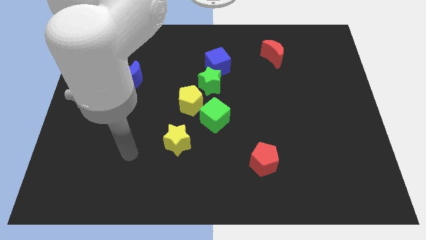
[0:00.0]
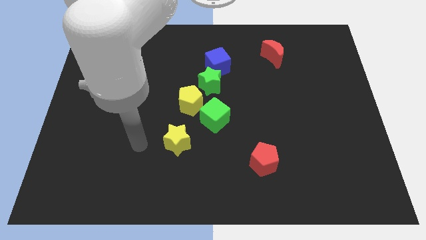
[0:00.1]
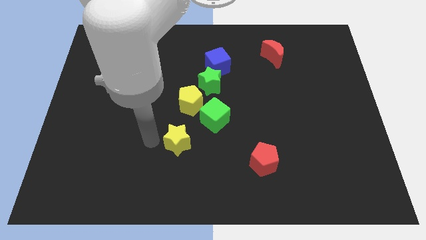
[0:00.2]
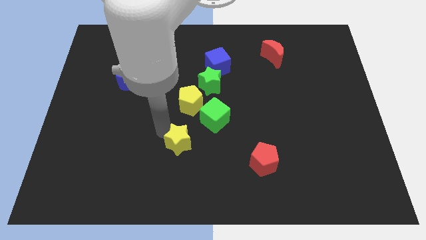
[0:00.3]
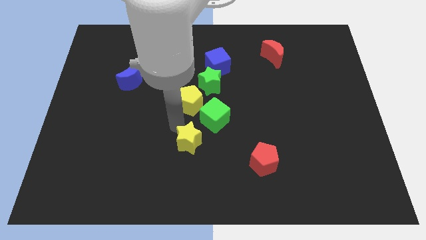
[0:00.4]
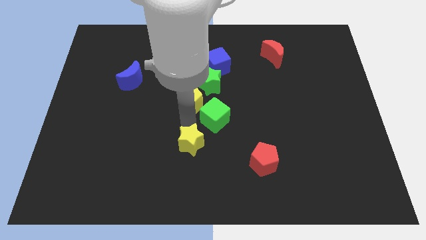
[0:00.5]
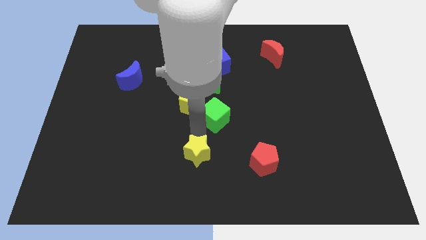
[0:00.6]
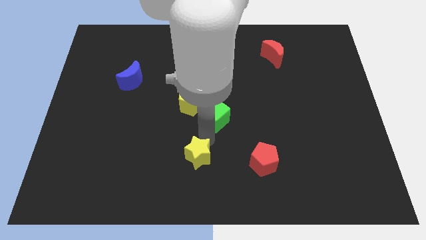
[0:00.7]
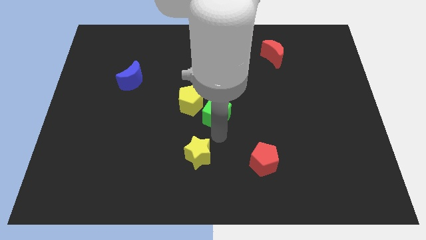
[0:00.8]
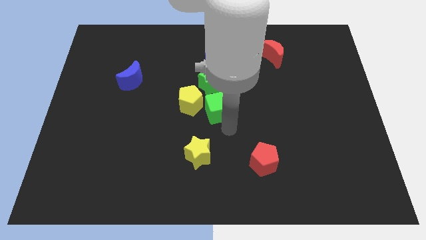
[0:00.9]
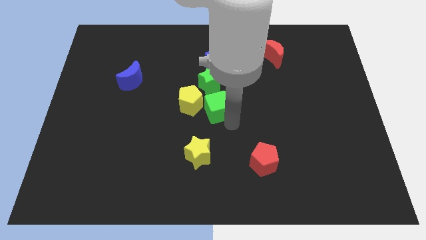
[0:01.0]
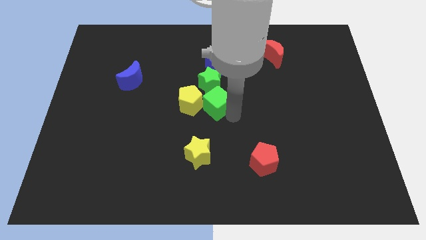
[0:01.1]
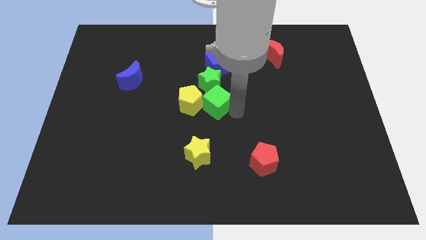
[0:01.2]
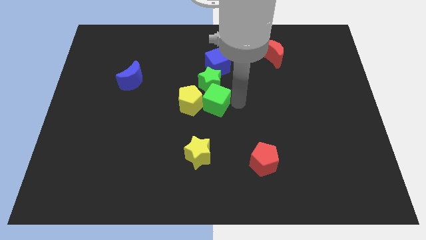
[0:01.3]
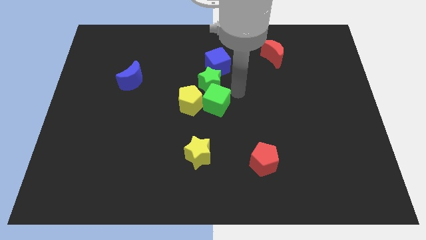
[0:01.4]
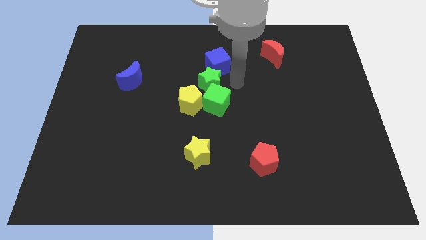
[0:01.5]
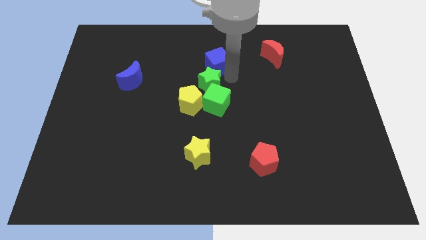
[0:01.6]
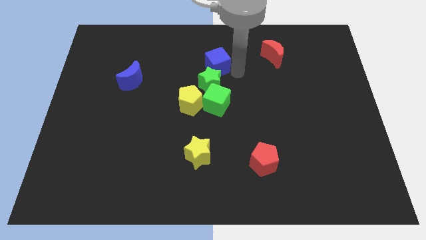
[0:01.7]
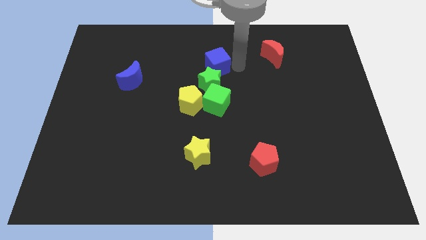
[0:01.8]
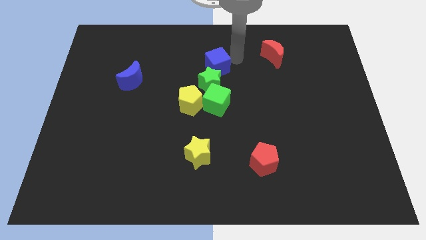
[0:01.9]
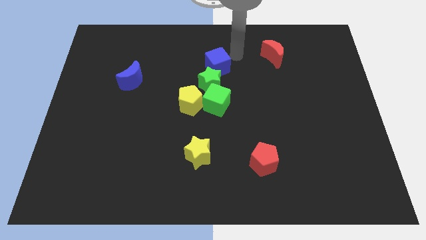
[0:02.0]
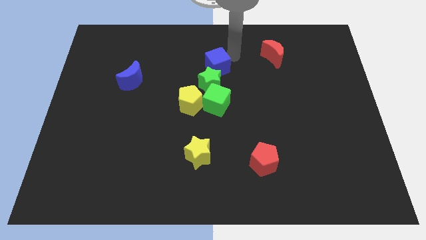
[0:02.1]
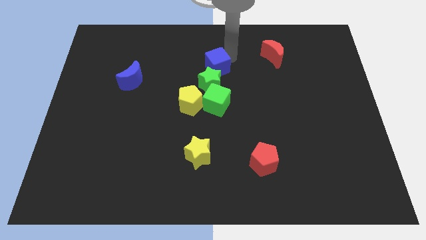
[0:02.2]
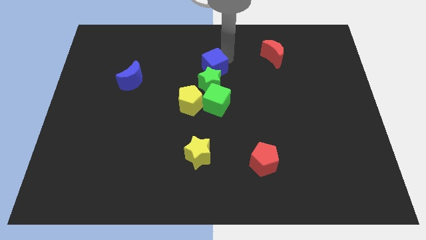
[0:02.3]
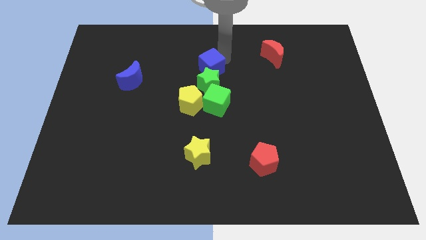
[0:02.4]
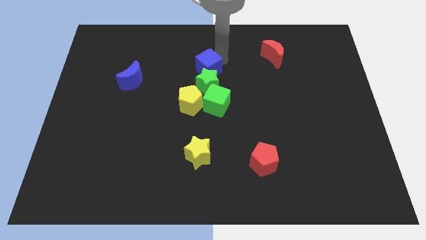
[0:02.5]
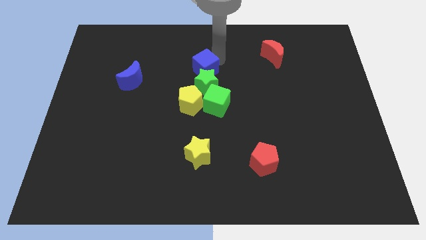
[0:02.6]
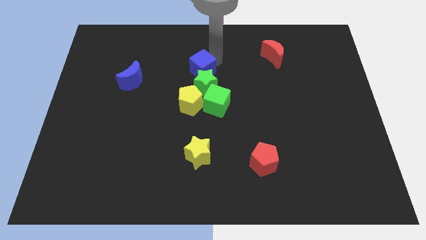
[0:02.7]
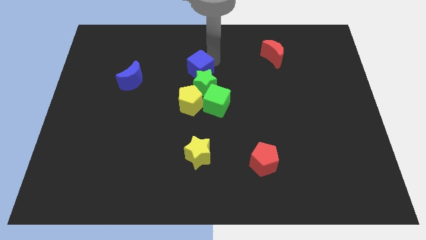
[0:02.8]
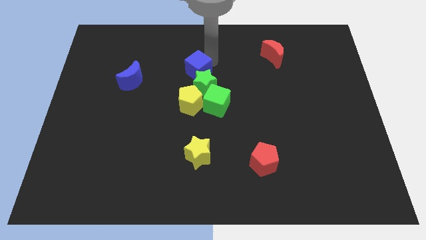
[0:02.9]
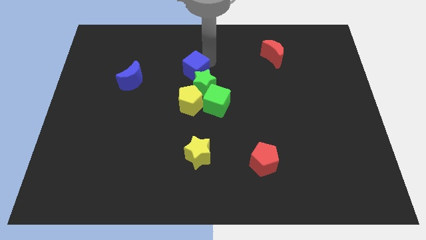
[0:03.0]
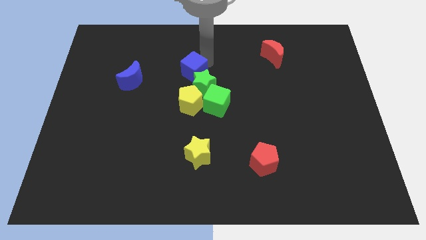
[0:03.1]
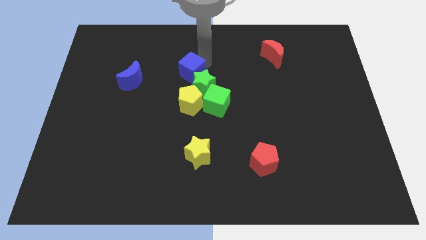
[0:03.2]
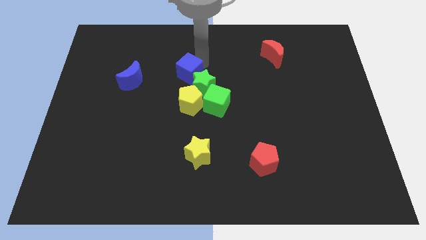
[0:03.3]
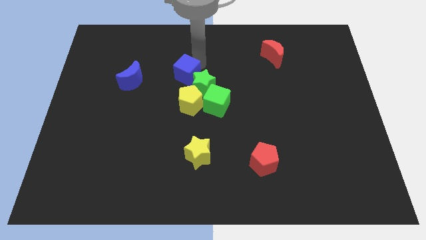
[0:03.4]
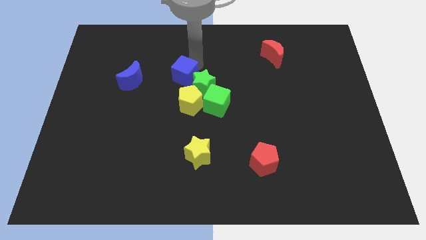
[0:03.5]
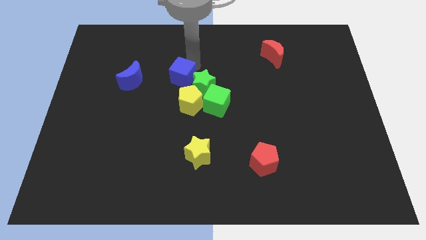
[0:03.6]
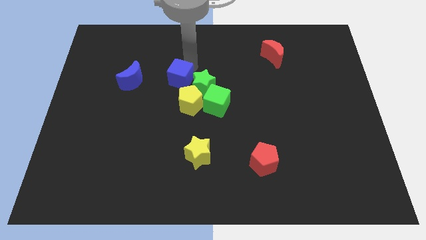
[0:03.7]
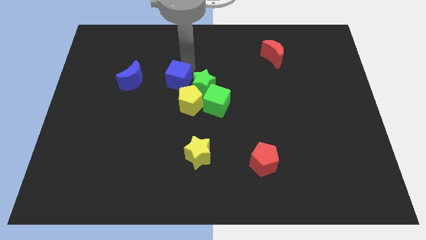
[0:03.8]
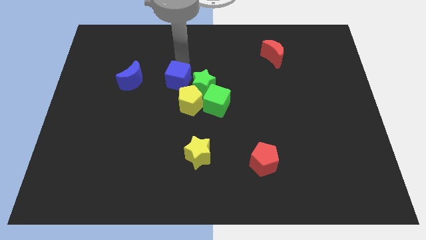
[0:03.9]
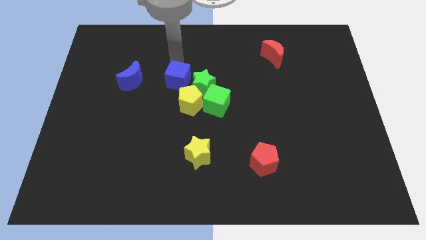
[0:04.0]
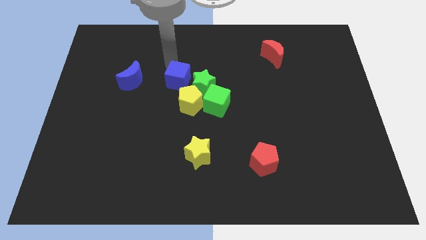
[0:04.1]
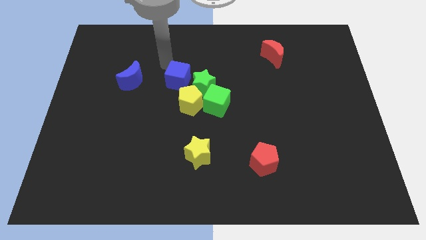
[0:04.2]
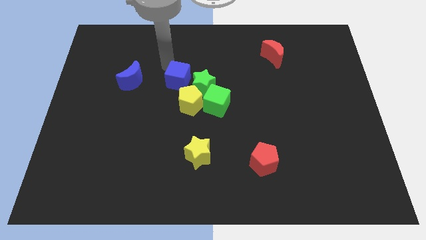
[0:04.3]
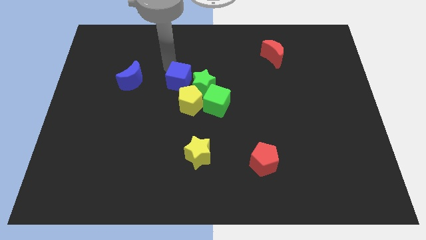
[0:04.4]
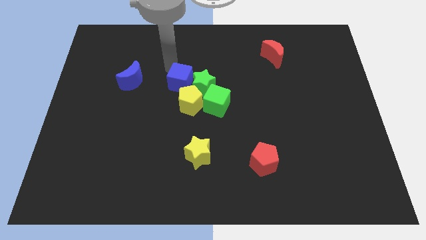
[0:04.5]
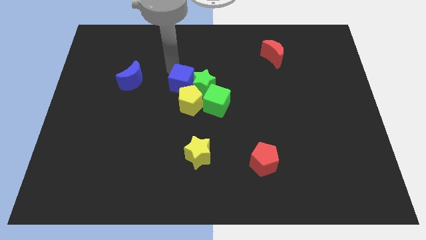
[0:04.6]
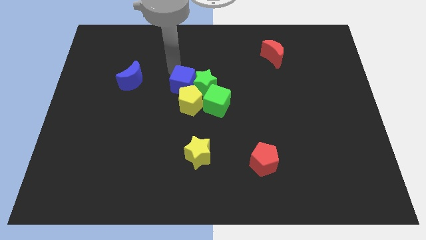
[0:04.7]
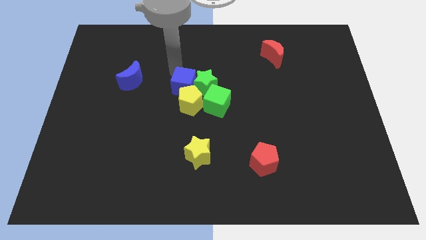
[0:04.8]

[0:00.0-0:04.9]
move the blue cube towards the yellow pentagon

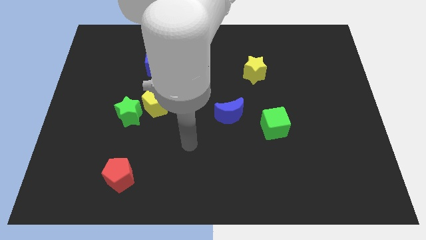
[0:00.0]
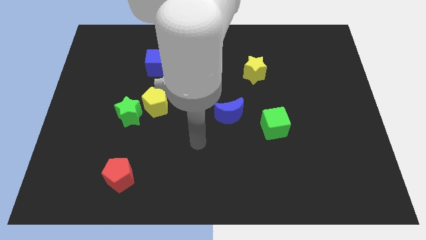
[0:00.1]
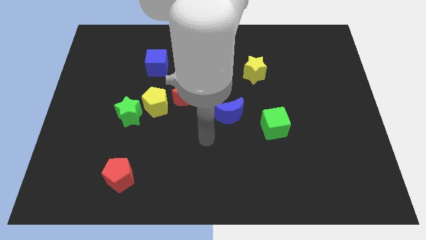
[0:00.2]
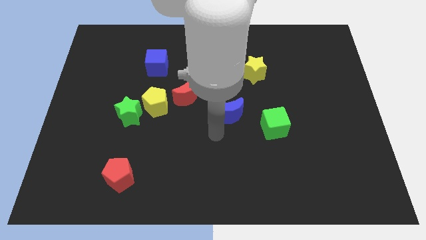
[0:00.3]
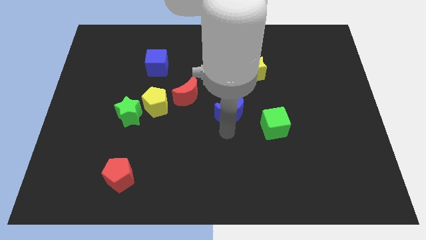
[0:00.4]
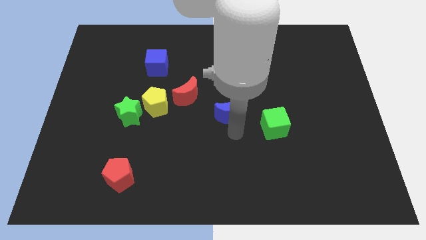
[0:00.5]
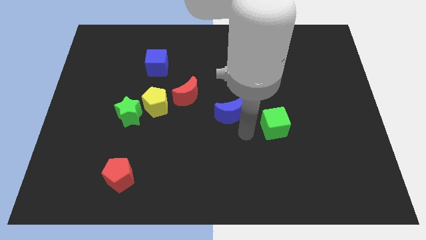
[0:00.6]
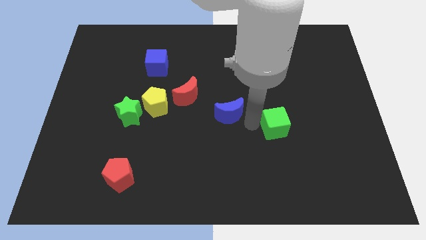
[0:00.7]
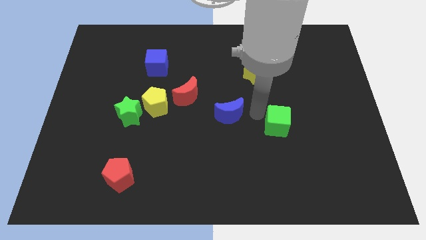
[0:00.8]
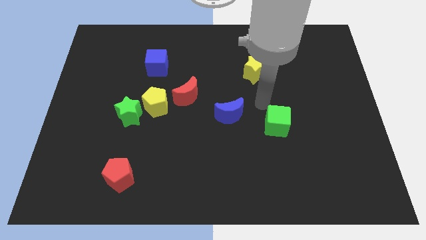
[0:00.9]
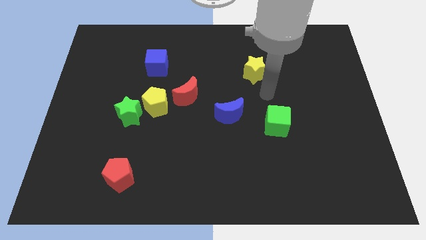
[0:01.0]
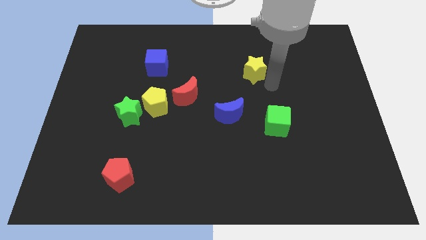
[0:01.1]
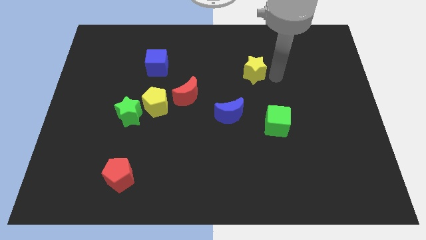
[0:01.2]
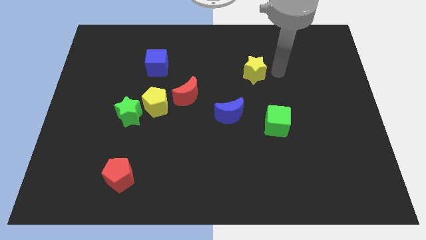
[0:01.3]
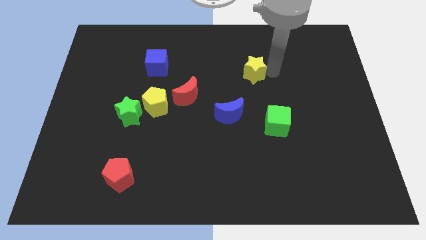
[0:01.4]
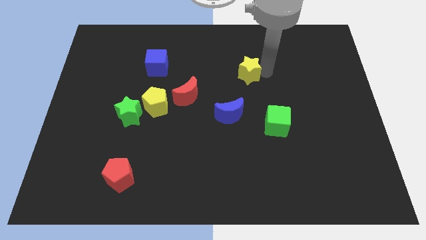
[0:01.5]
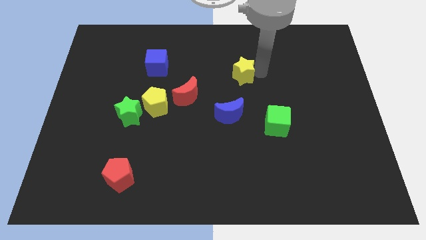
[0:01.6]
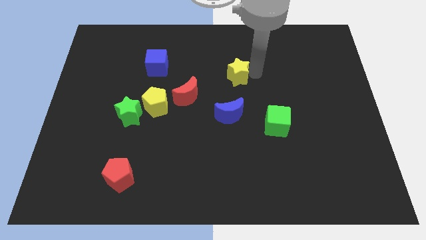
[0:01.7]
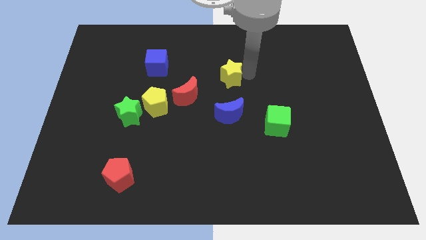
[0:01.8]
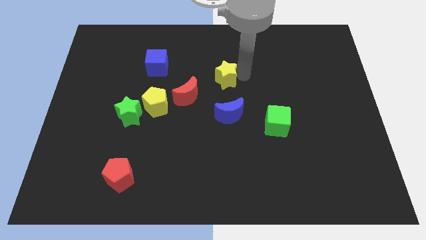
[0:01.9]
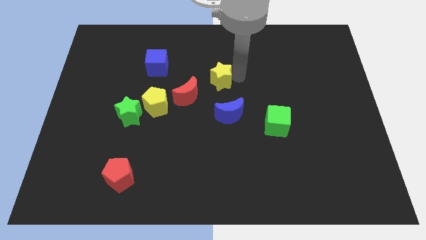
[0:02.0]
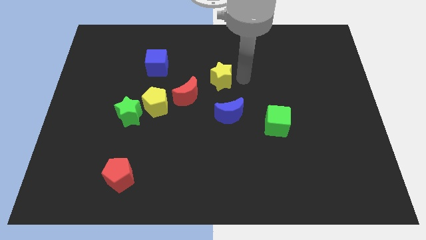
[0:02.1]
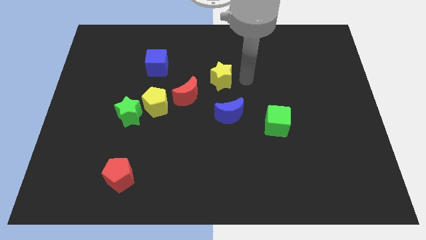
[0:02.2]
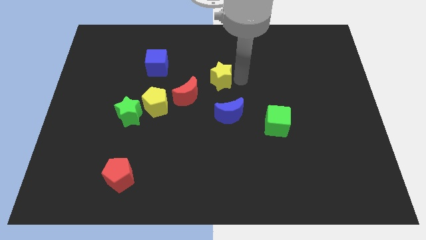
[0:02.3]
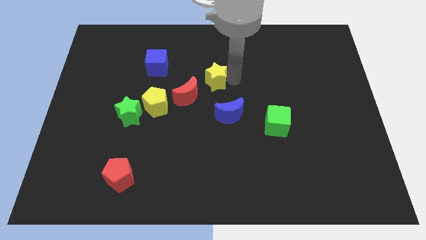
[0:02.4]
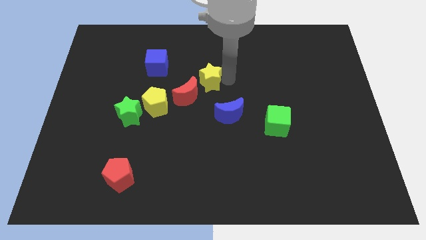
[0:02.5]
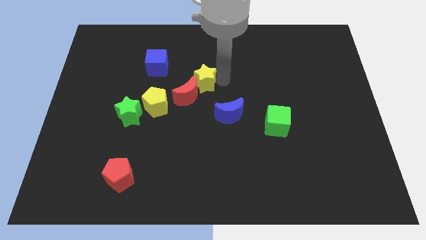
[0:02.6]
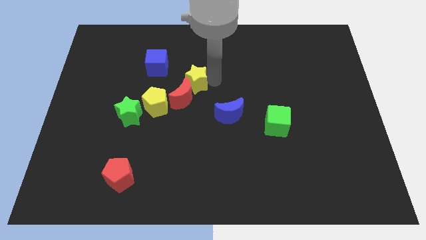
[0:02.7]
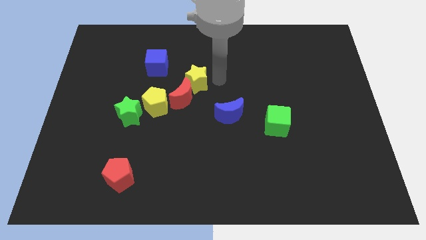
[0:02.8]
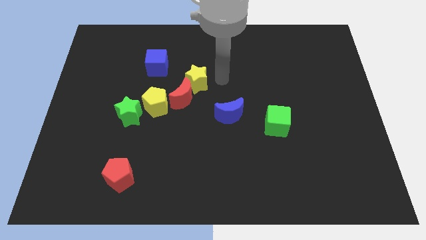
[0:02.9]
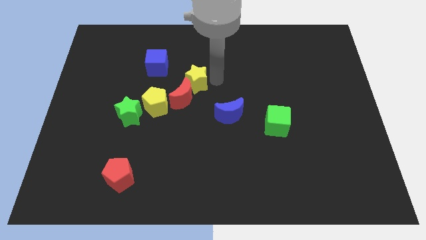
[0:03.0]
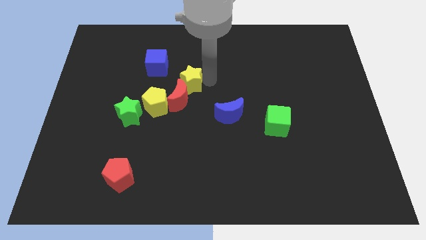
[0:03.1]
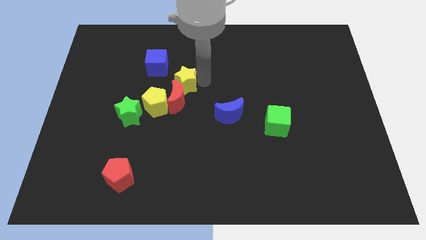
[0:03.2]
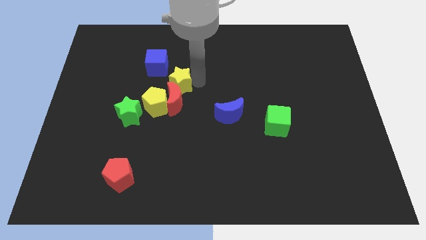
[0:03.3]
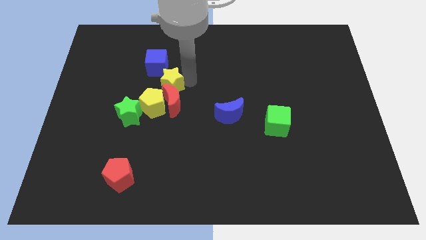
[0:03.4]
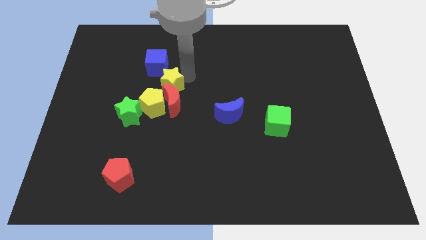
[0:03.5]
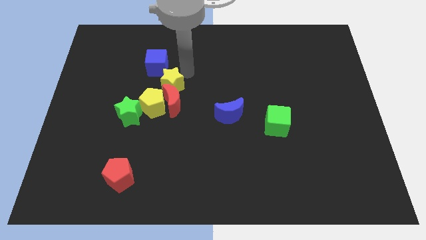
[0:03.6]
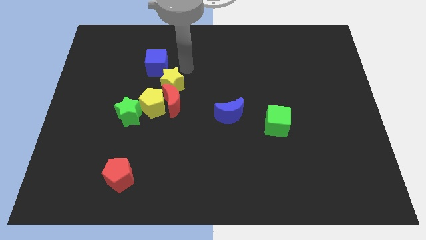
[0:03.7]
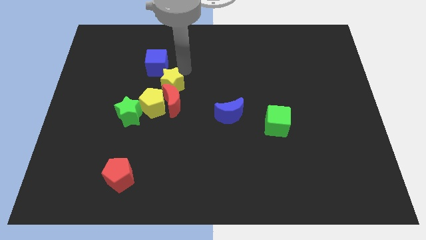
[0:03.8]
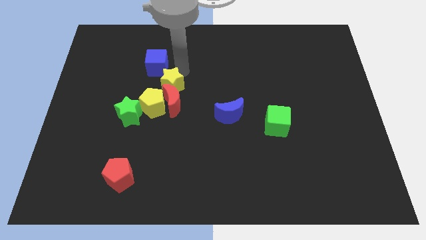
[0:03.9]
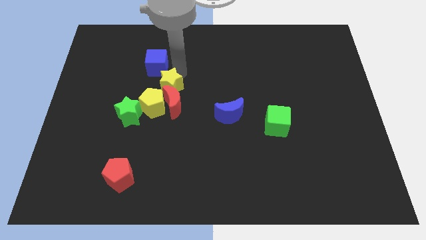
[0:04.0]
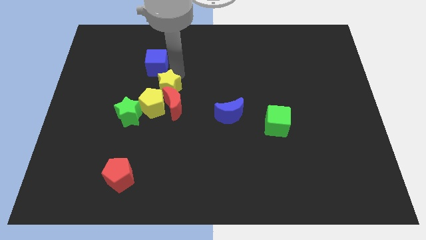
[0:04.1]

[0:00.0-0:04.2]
put the yellow star to the yellow pentagon
